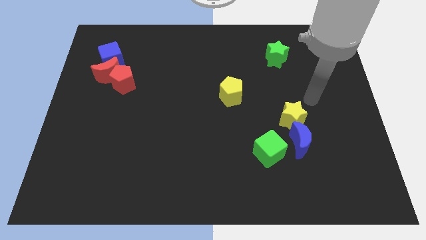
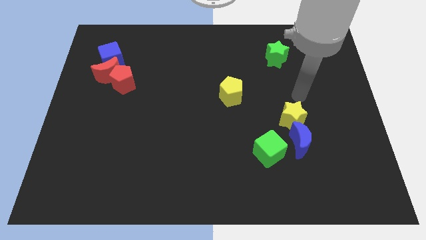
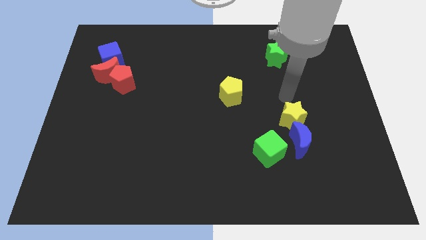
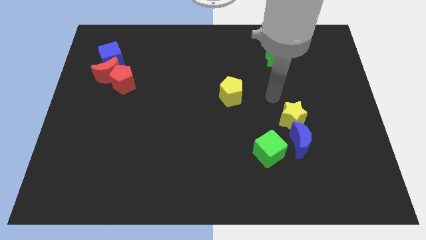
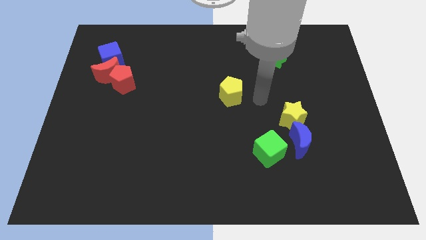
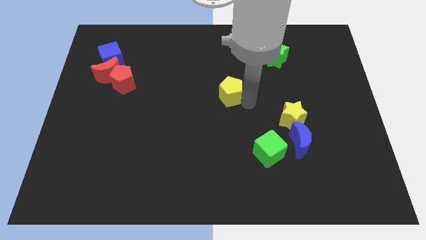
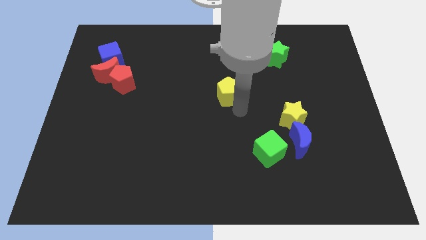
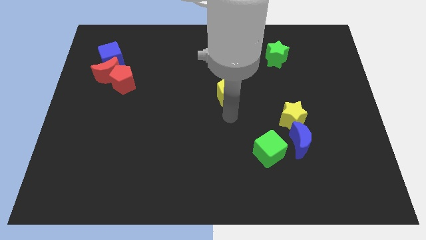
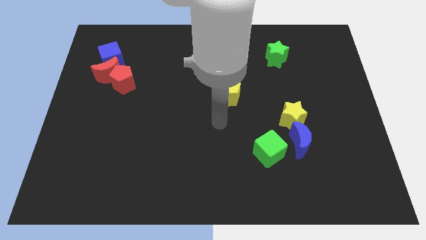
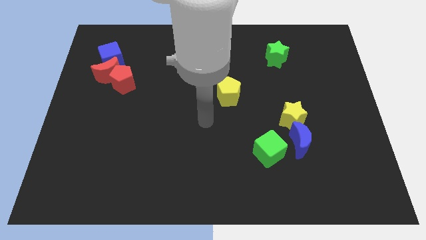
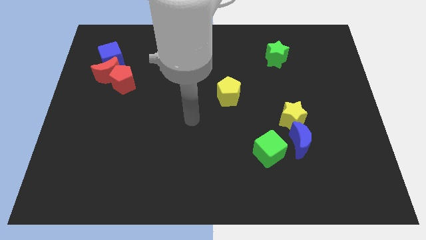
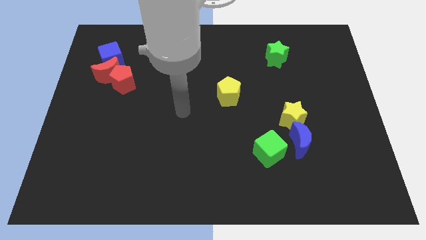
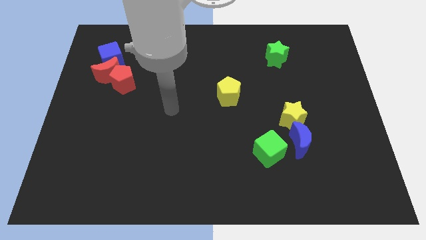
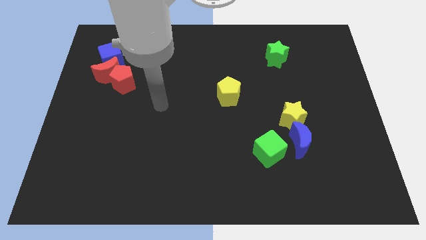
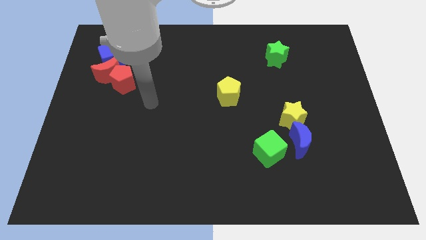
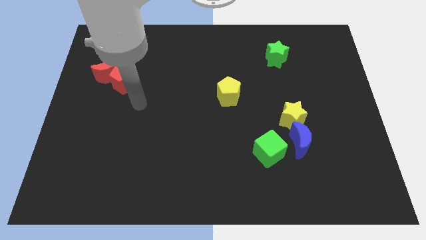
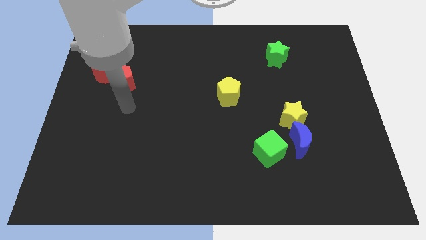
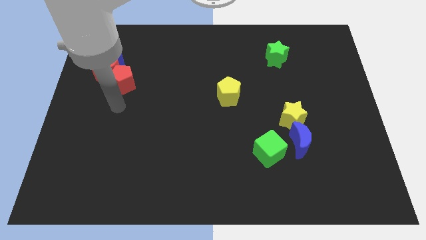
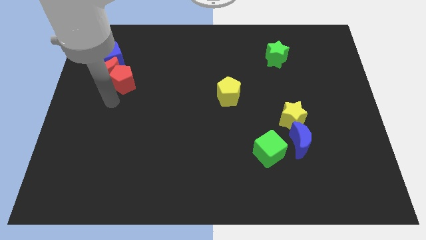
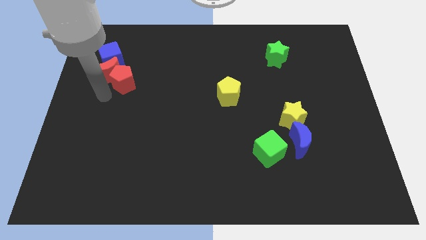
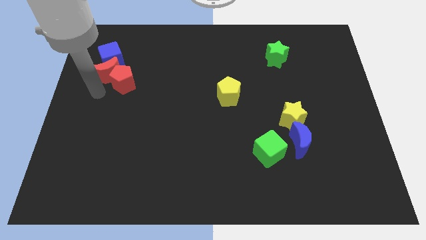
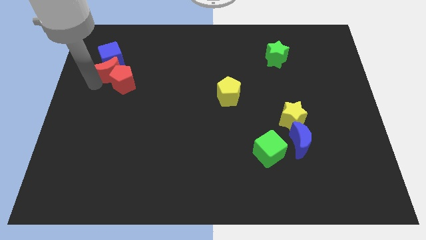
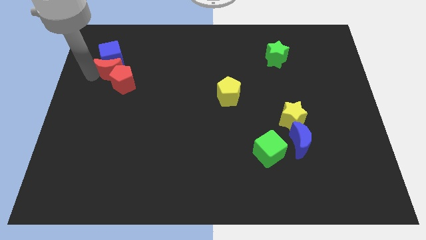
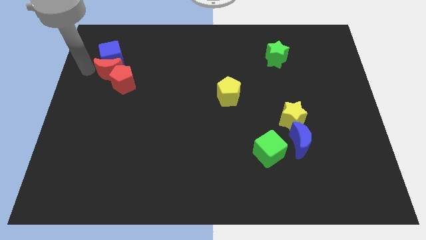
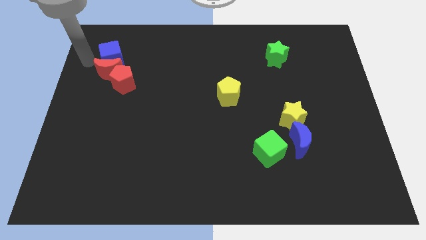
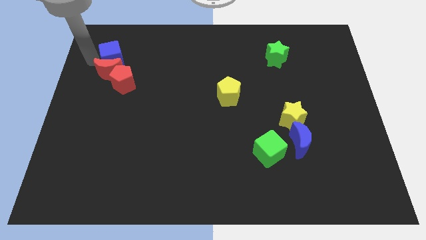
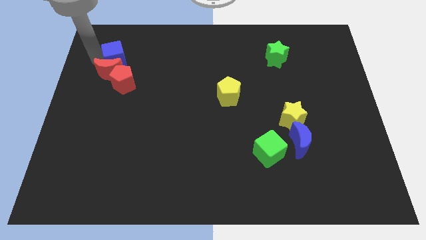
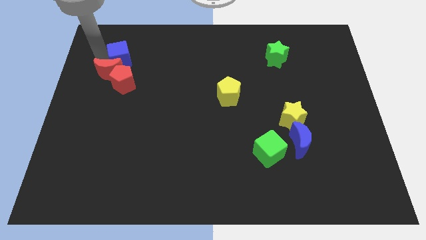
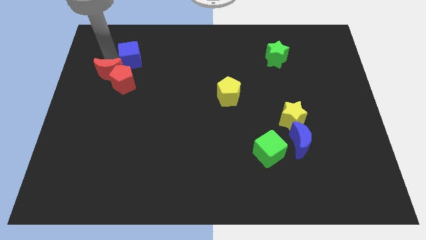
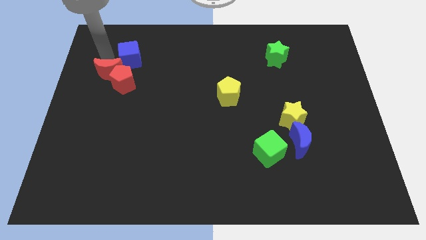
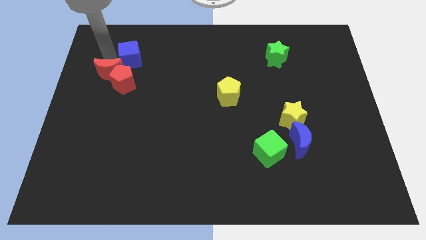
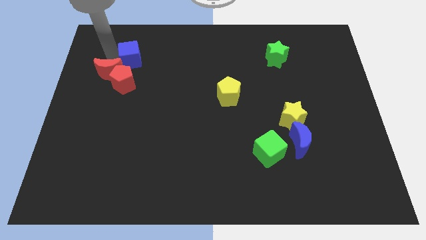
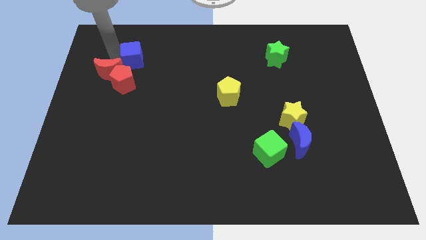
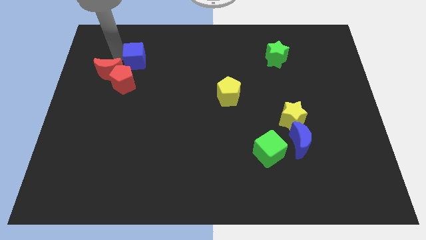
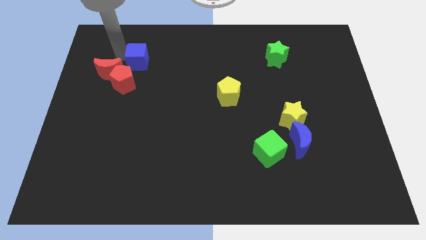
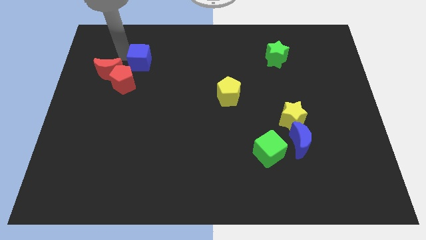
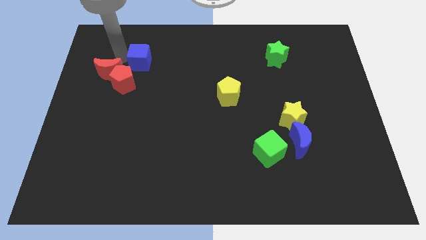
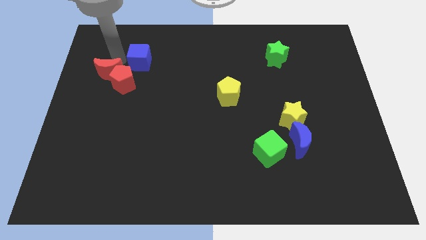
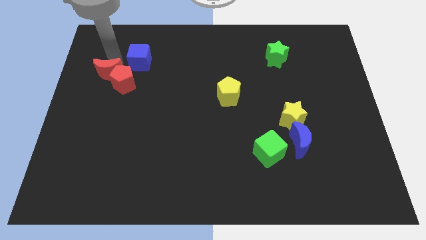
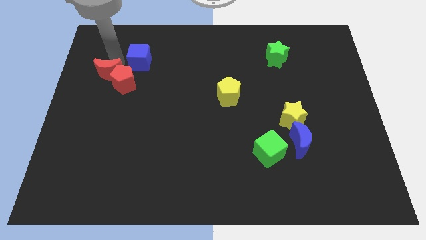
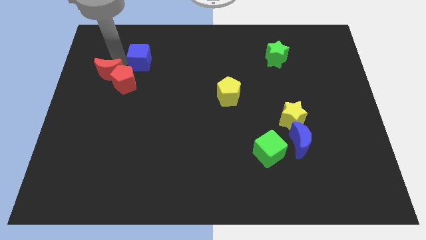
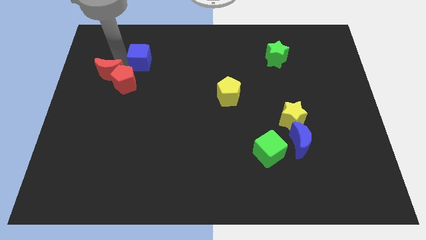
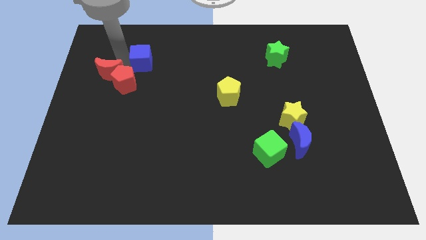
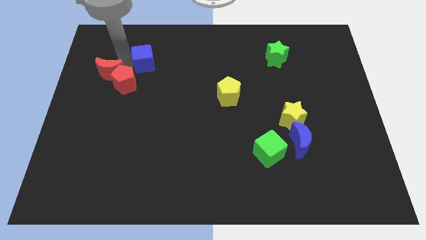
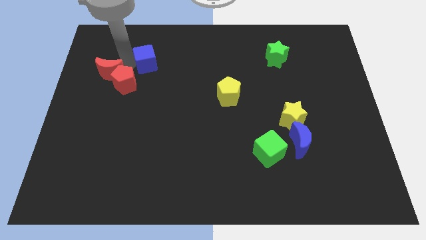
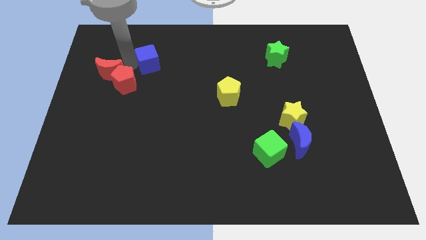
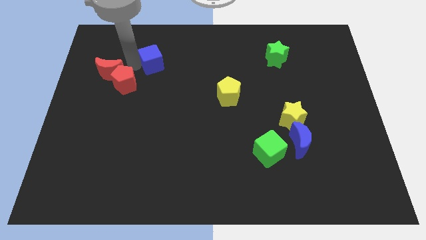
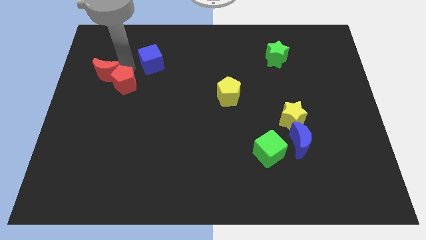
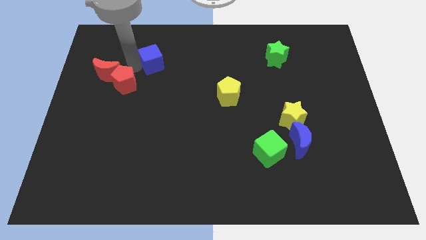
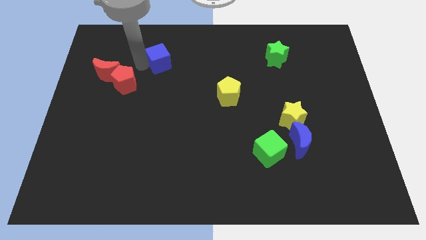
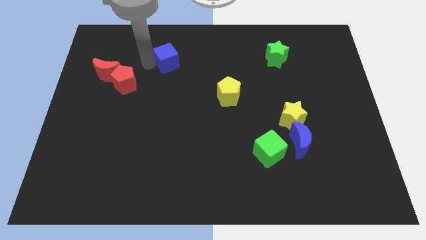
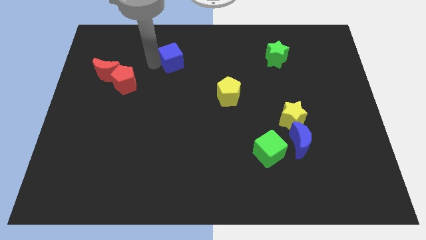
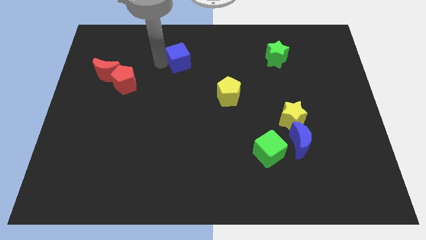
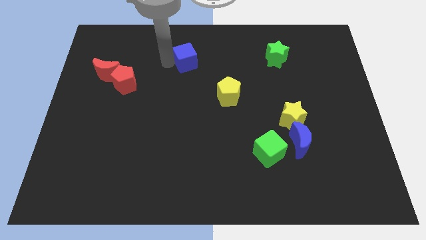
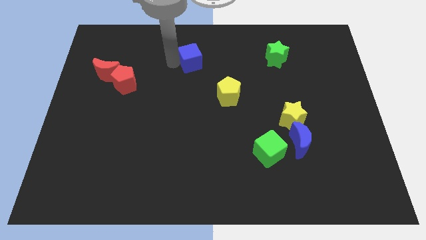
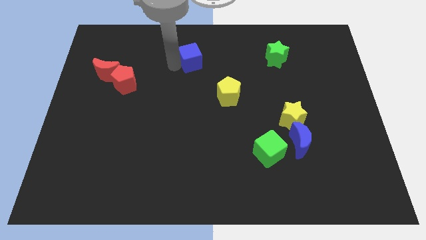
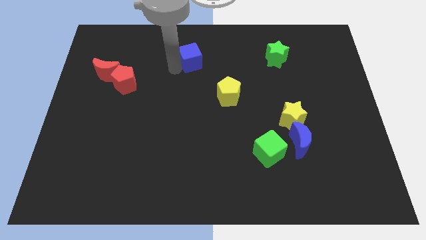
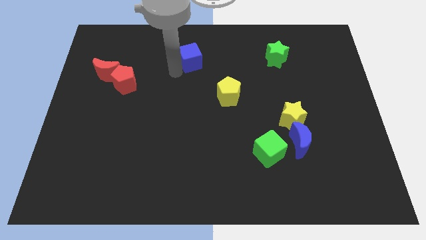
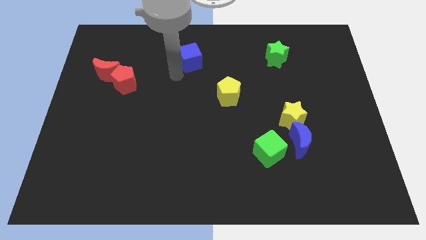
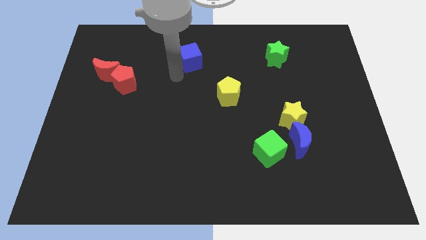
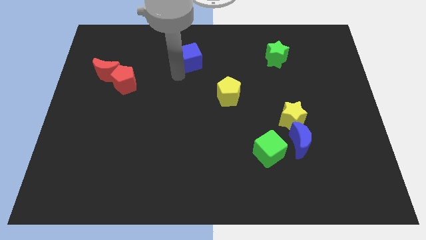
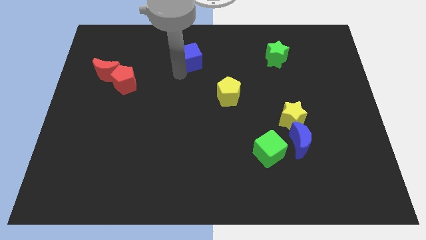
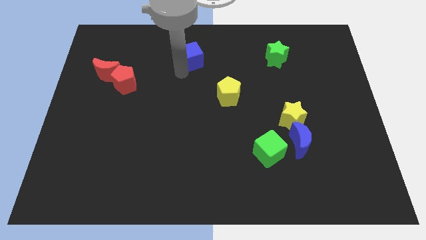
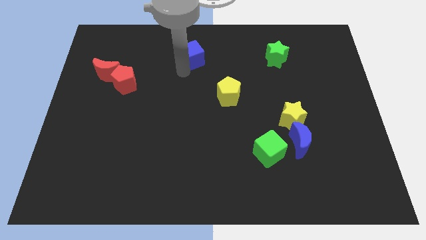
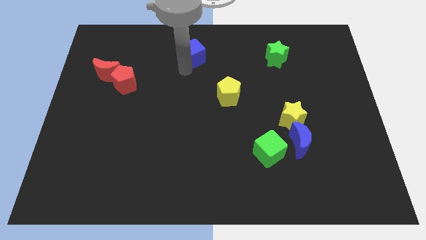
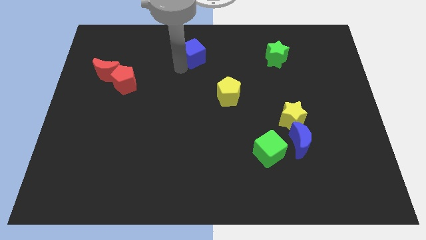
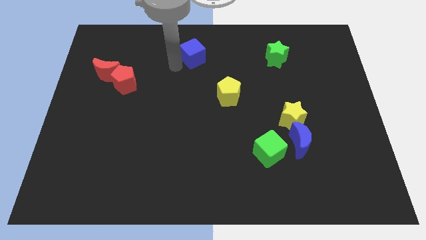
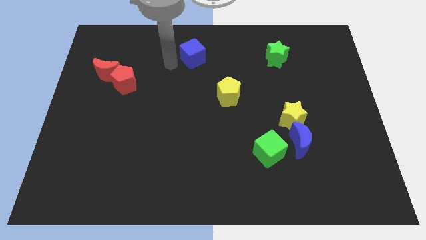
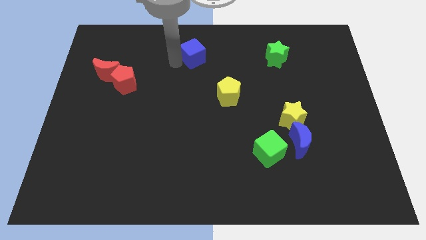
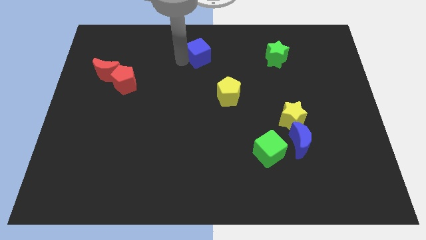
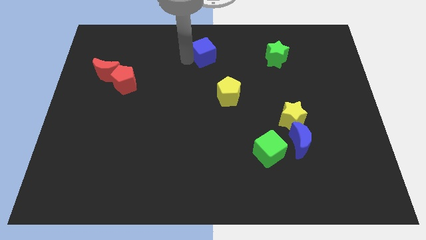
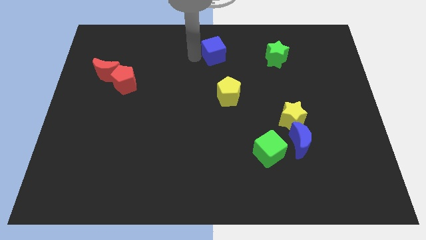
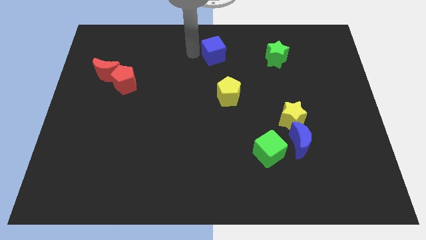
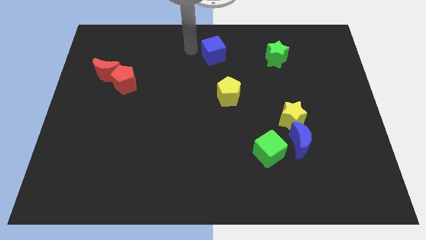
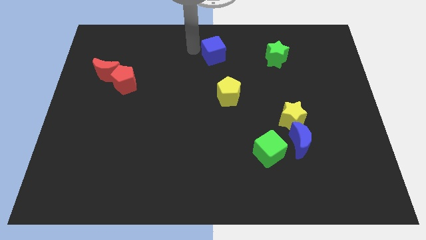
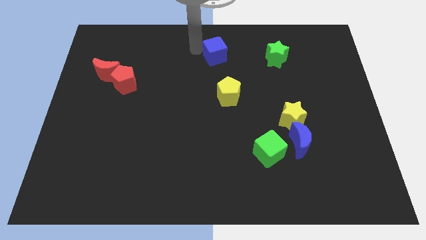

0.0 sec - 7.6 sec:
move the blue cube left of the green star
